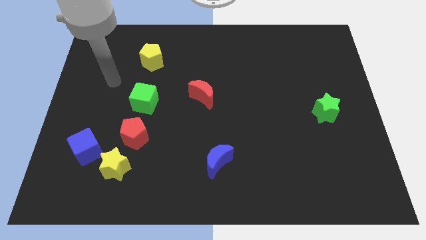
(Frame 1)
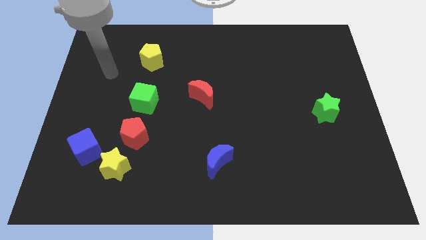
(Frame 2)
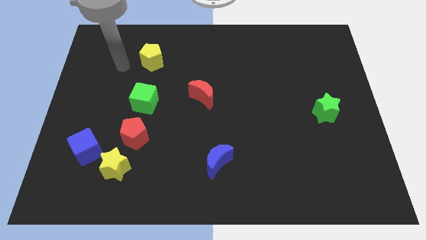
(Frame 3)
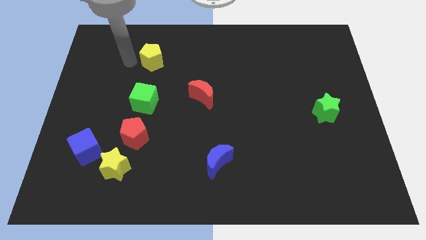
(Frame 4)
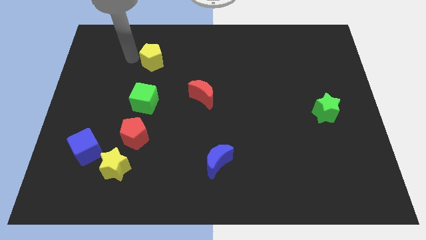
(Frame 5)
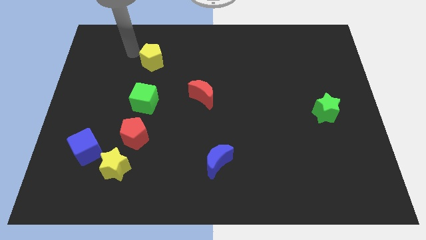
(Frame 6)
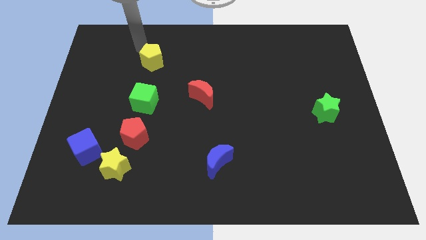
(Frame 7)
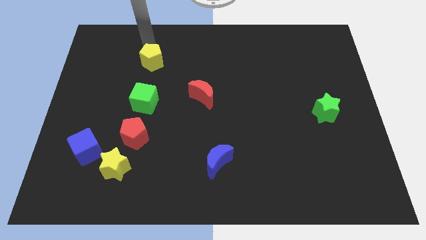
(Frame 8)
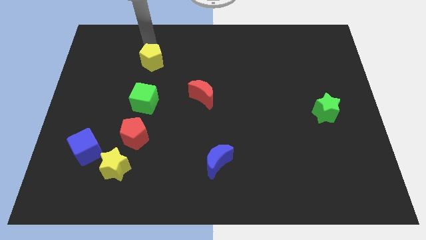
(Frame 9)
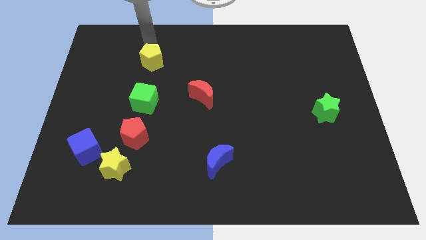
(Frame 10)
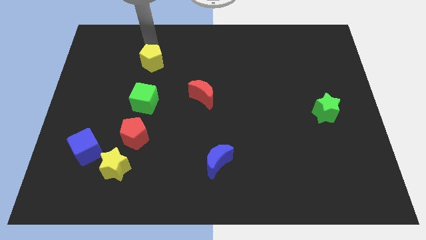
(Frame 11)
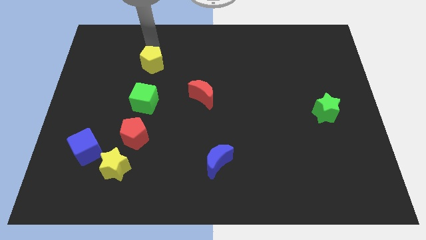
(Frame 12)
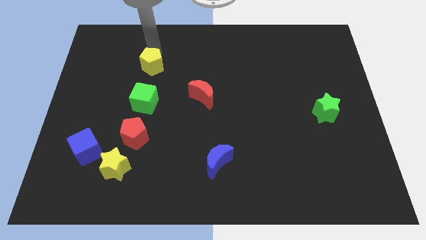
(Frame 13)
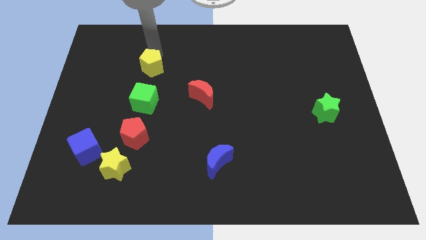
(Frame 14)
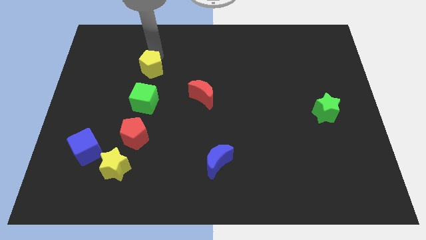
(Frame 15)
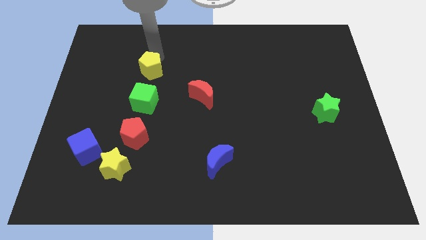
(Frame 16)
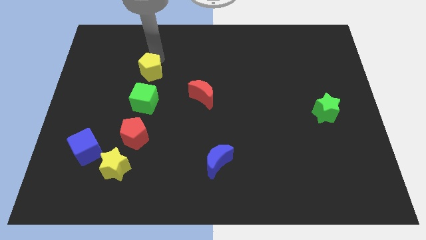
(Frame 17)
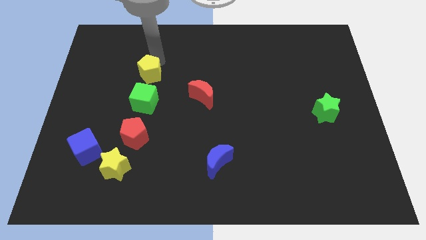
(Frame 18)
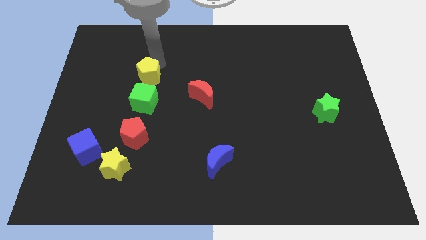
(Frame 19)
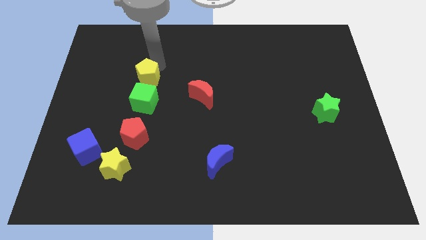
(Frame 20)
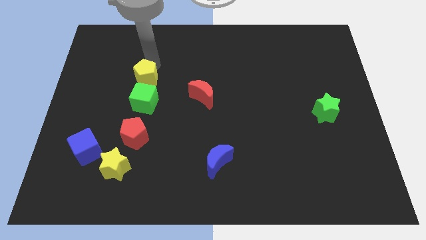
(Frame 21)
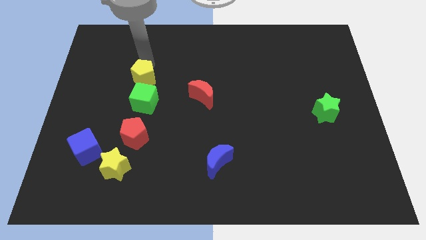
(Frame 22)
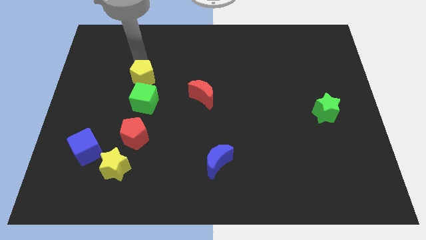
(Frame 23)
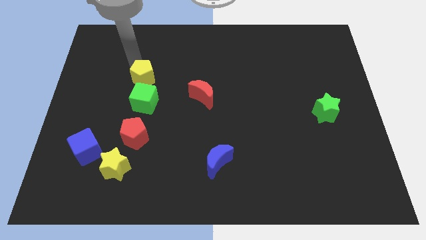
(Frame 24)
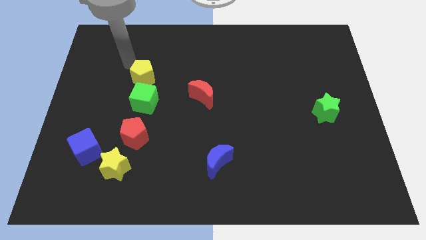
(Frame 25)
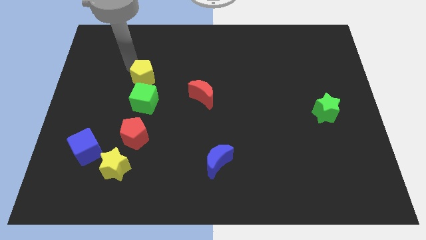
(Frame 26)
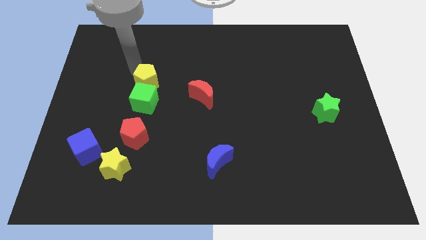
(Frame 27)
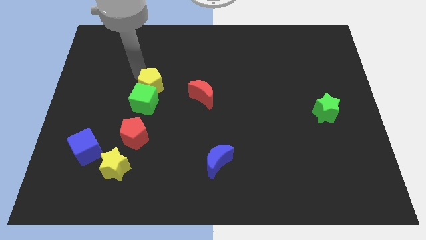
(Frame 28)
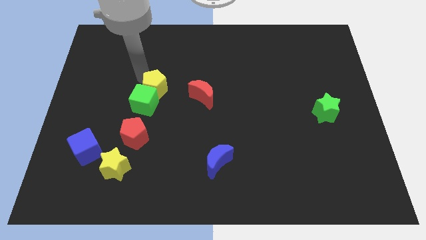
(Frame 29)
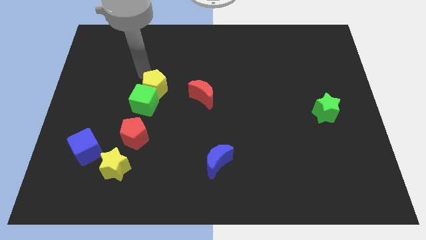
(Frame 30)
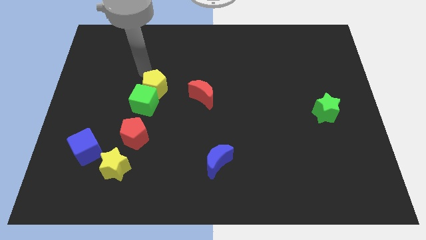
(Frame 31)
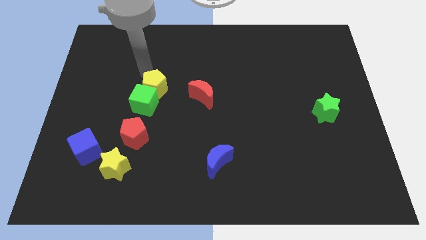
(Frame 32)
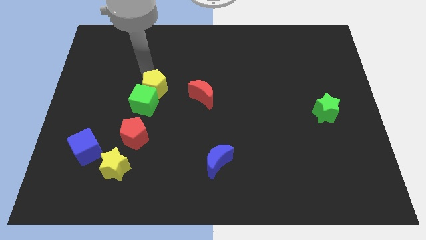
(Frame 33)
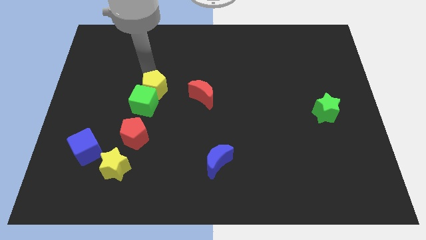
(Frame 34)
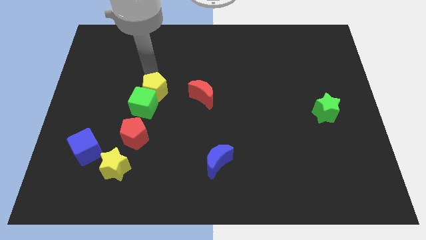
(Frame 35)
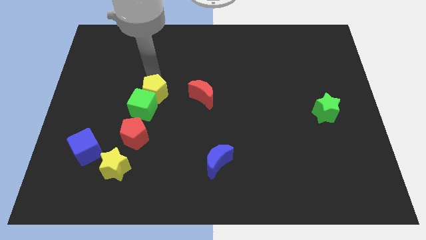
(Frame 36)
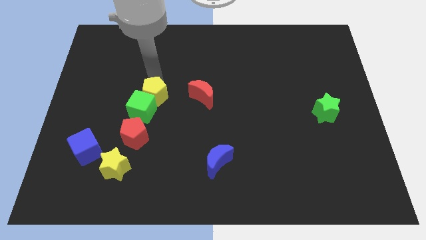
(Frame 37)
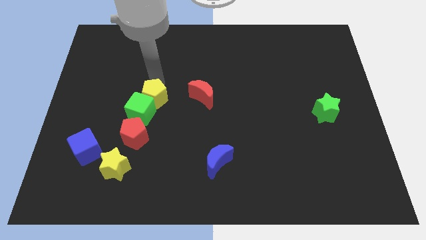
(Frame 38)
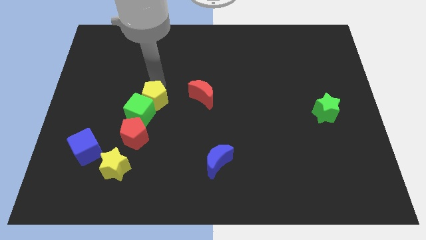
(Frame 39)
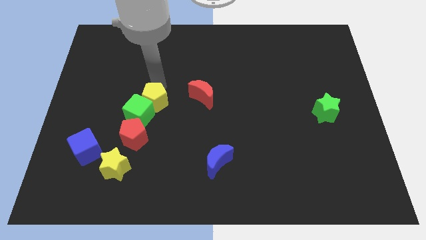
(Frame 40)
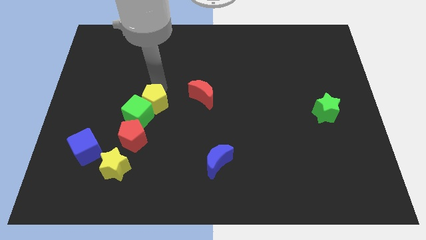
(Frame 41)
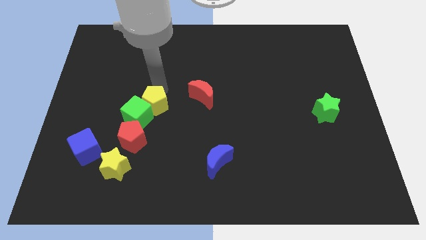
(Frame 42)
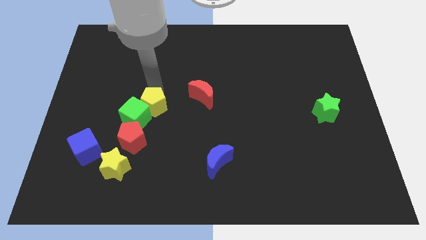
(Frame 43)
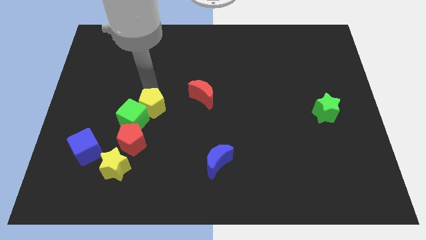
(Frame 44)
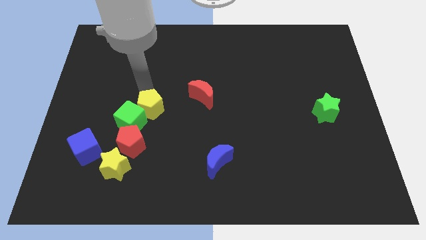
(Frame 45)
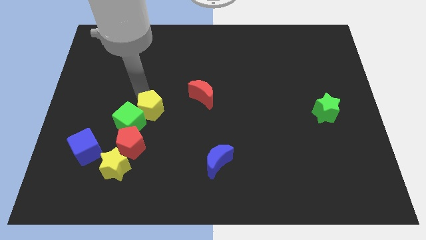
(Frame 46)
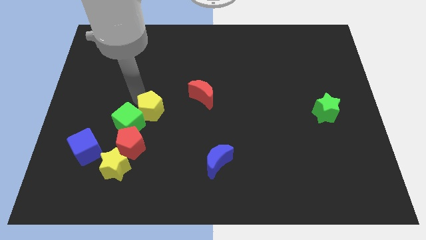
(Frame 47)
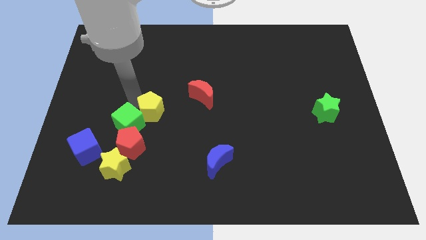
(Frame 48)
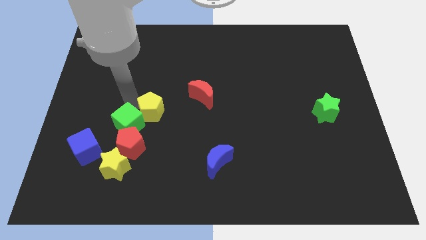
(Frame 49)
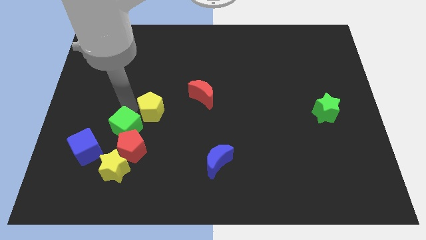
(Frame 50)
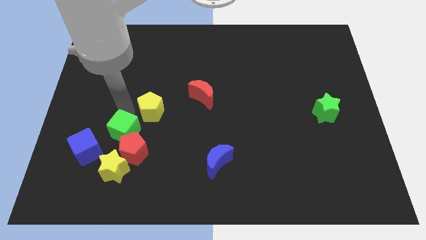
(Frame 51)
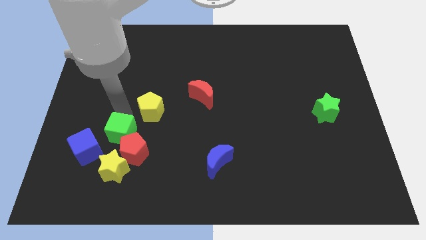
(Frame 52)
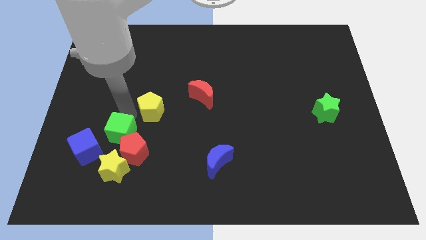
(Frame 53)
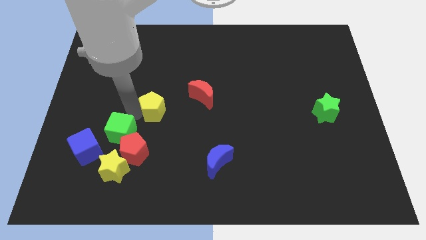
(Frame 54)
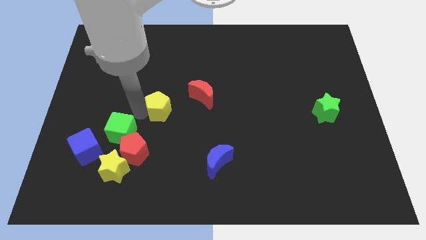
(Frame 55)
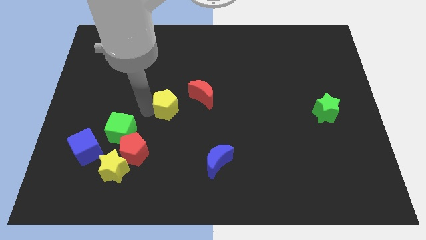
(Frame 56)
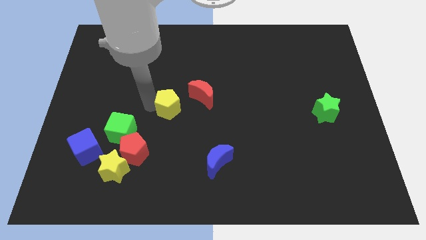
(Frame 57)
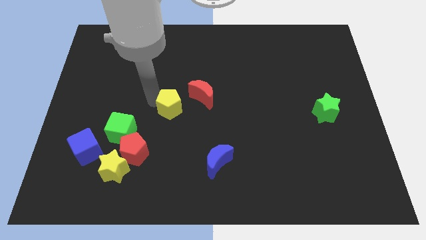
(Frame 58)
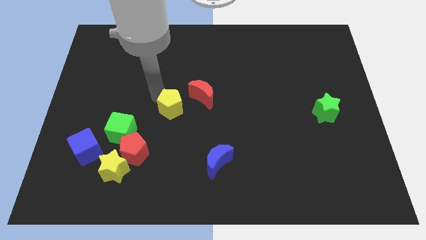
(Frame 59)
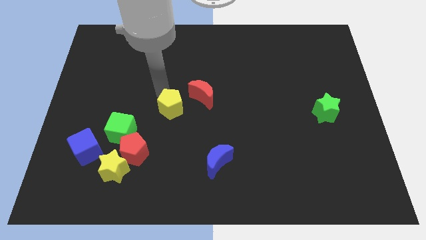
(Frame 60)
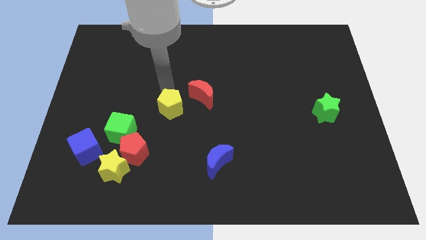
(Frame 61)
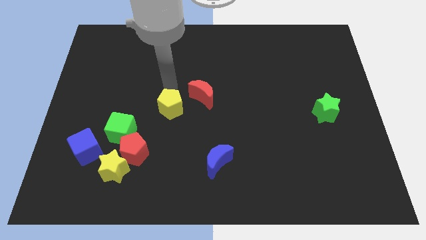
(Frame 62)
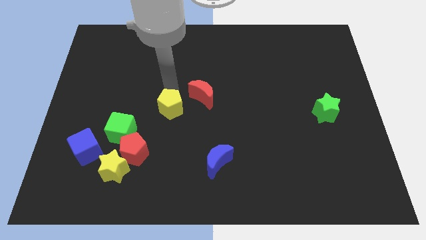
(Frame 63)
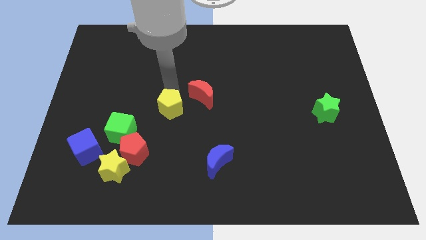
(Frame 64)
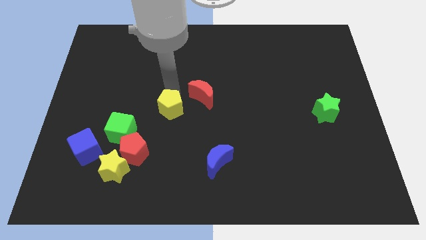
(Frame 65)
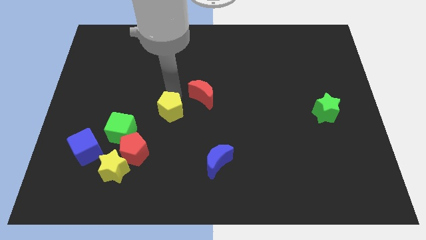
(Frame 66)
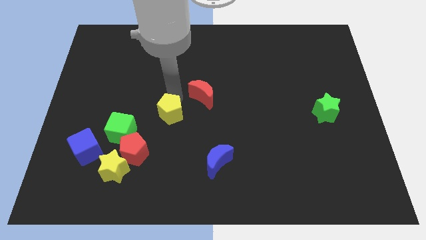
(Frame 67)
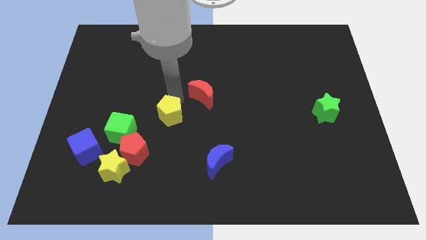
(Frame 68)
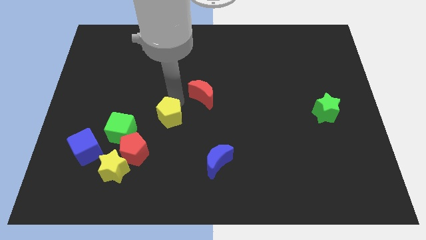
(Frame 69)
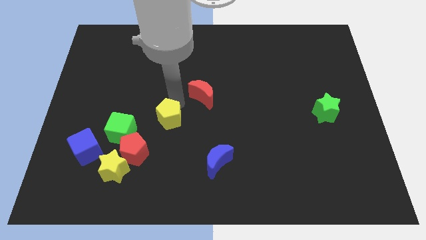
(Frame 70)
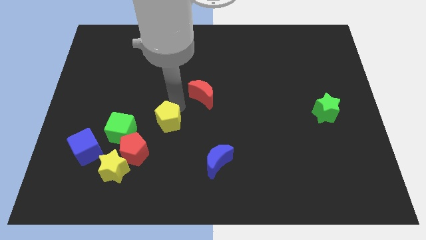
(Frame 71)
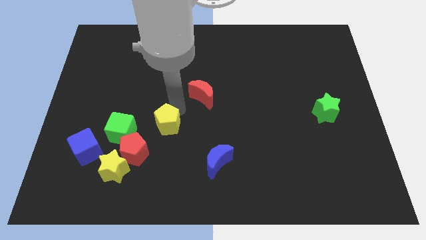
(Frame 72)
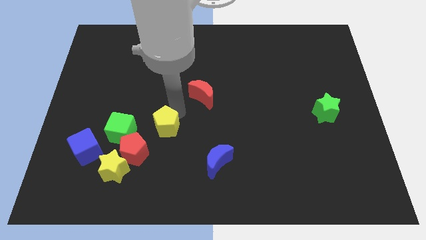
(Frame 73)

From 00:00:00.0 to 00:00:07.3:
move the yellow pentagon down

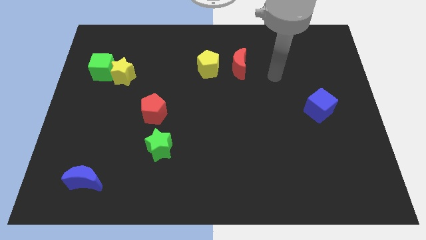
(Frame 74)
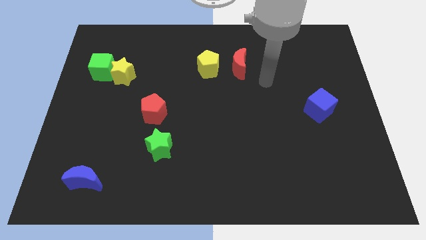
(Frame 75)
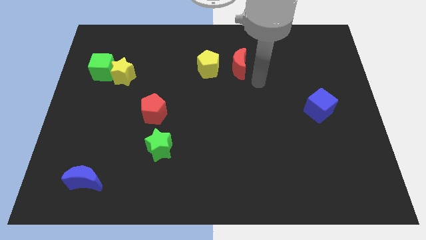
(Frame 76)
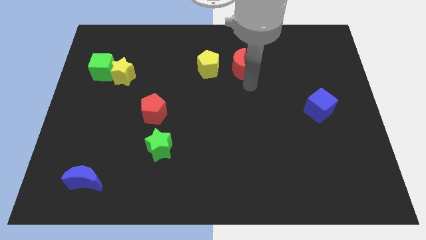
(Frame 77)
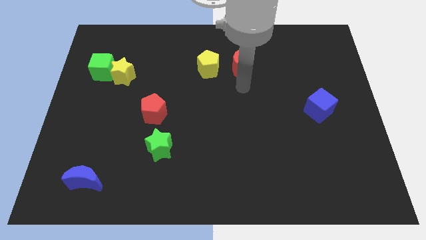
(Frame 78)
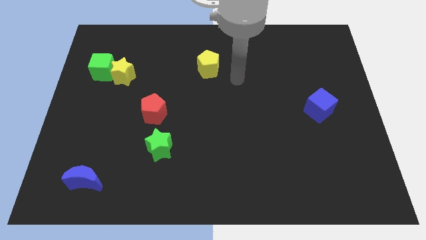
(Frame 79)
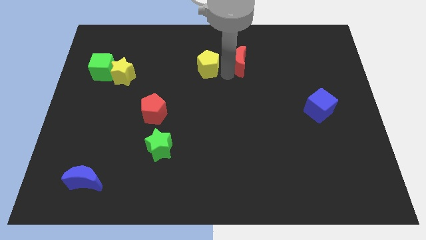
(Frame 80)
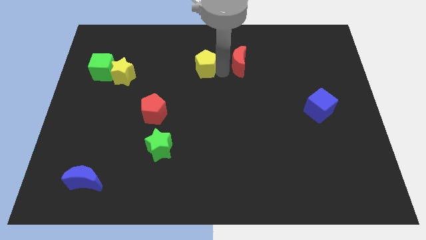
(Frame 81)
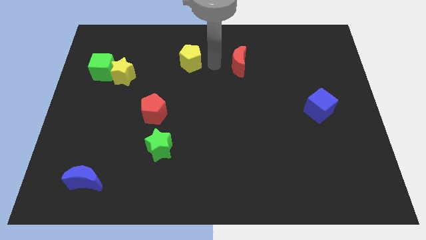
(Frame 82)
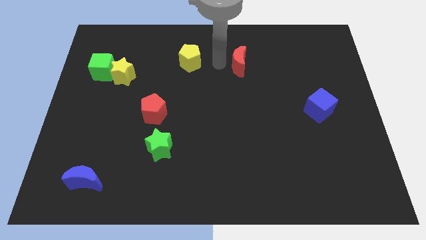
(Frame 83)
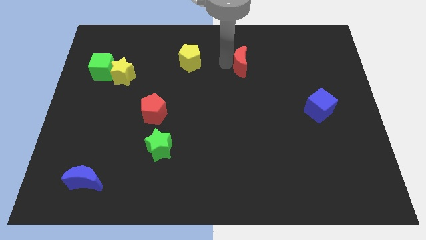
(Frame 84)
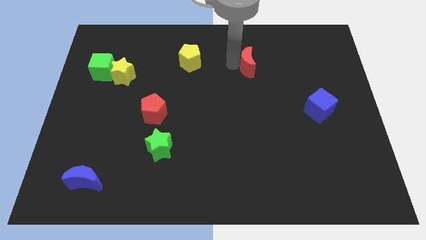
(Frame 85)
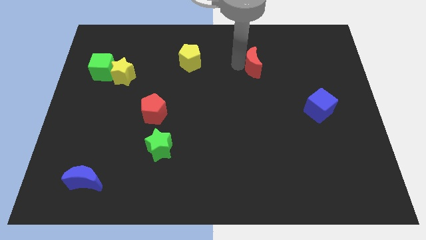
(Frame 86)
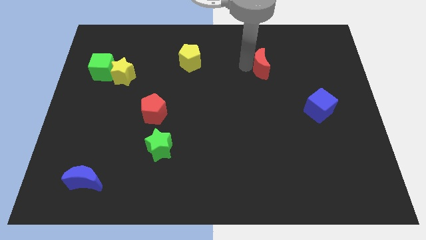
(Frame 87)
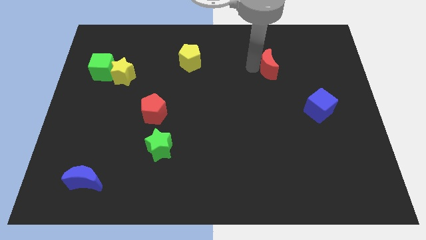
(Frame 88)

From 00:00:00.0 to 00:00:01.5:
push the red moon a little to the right
